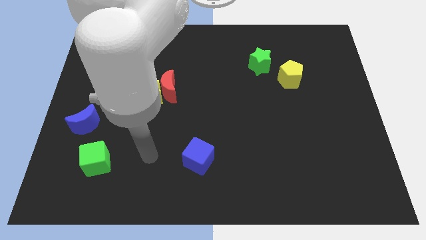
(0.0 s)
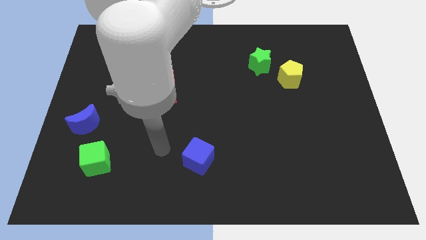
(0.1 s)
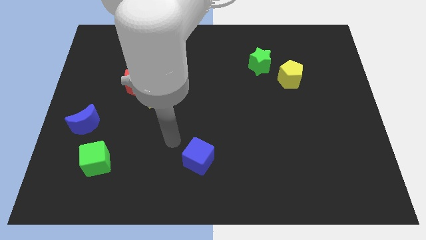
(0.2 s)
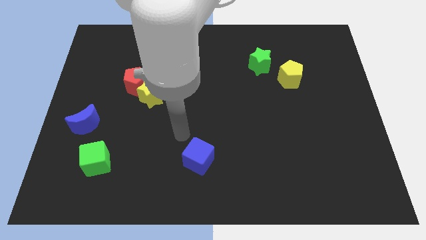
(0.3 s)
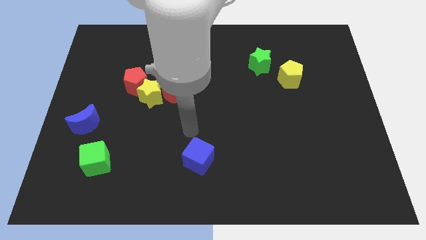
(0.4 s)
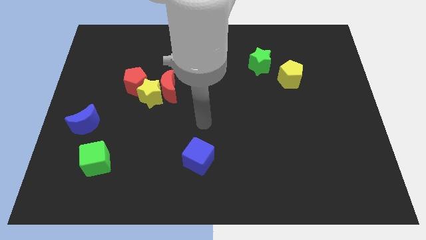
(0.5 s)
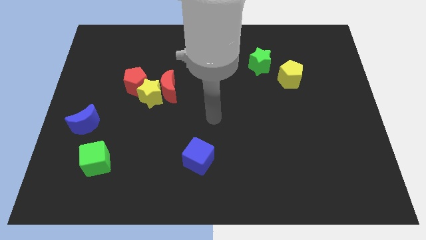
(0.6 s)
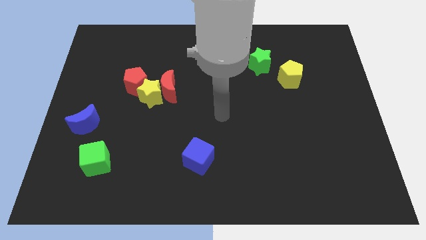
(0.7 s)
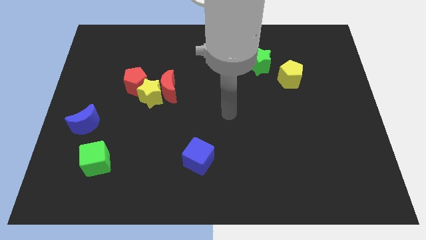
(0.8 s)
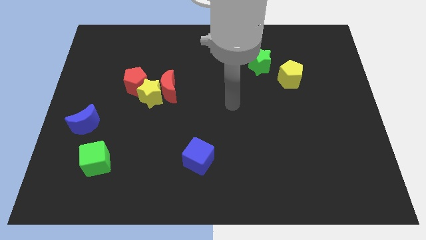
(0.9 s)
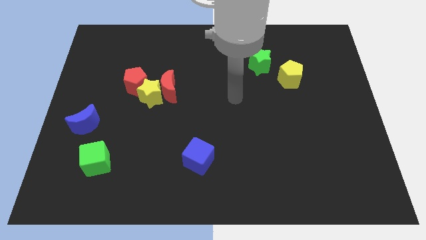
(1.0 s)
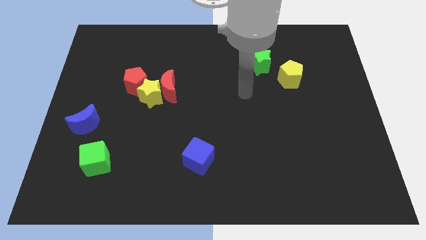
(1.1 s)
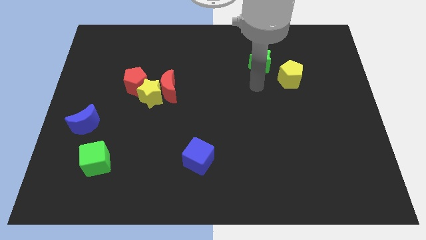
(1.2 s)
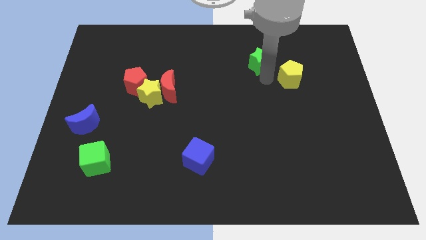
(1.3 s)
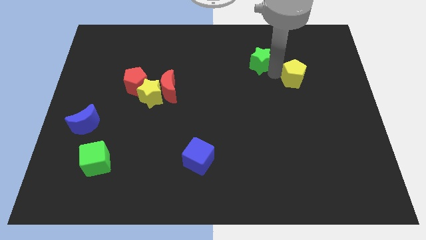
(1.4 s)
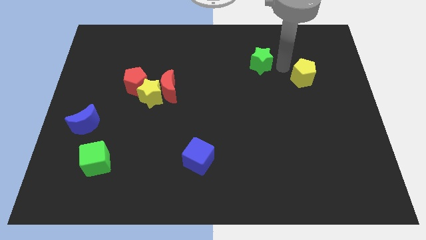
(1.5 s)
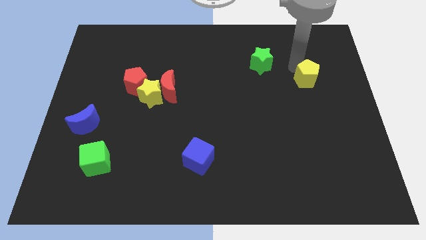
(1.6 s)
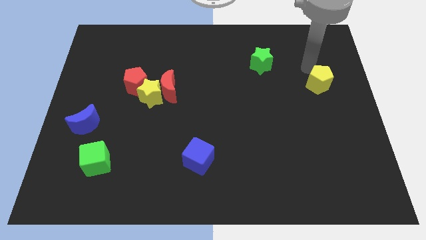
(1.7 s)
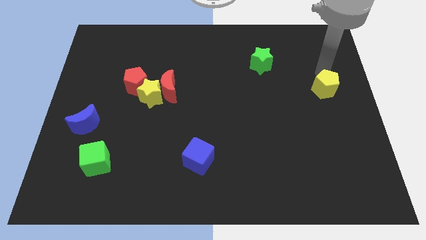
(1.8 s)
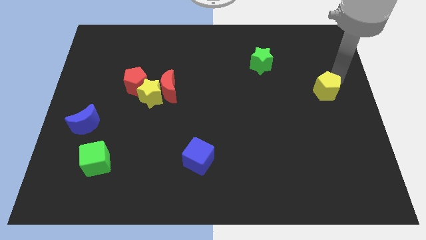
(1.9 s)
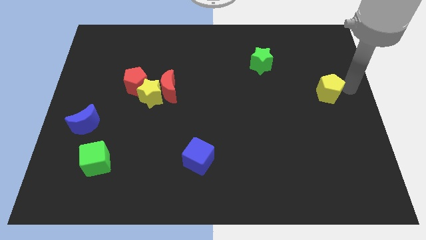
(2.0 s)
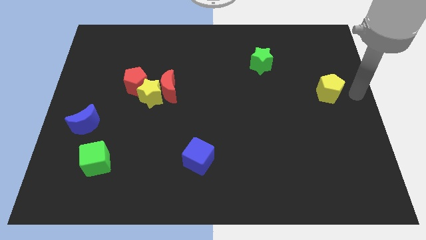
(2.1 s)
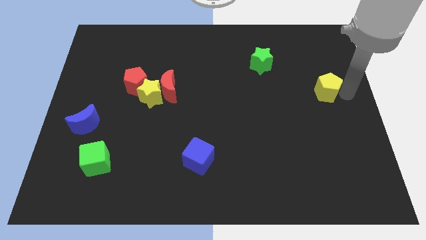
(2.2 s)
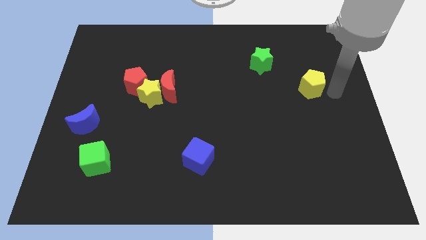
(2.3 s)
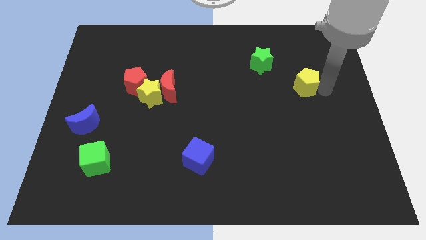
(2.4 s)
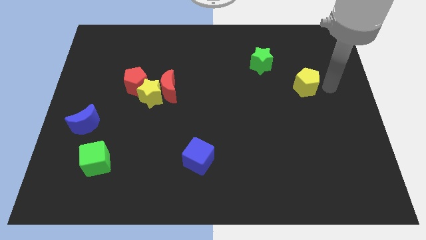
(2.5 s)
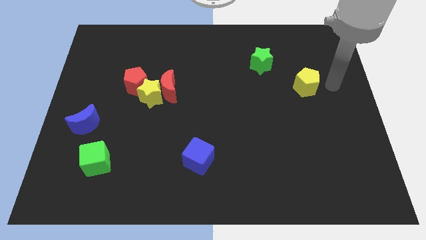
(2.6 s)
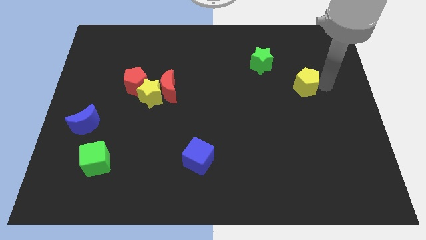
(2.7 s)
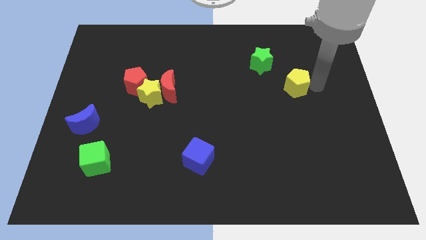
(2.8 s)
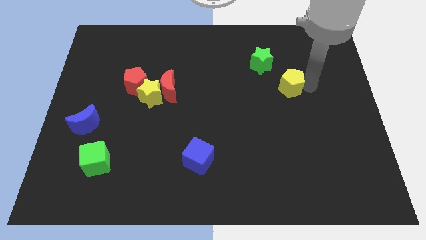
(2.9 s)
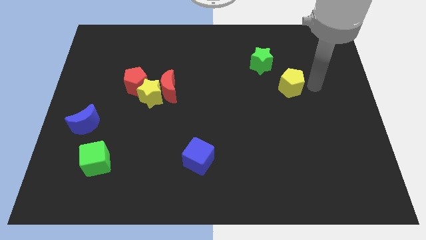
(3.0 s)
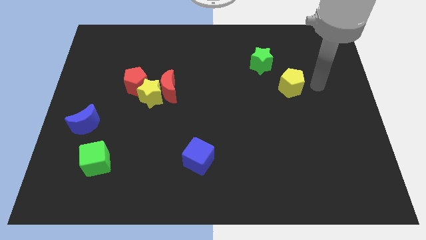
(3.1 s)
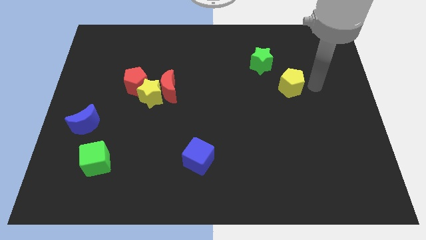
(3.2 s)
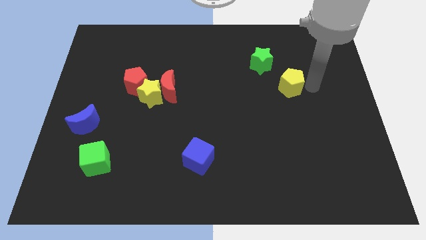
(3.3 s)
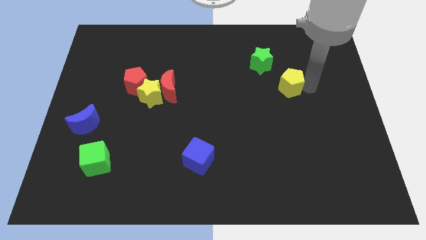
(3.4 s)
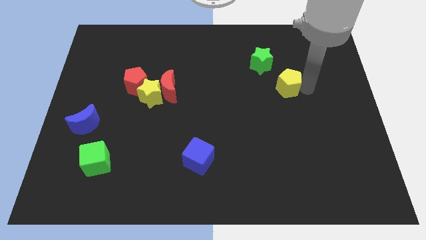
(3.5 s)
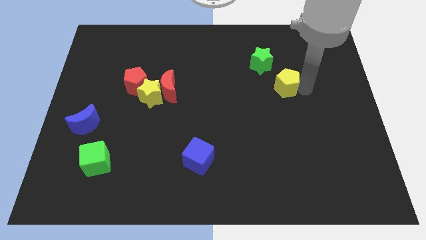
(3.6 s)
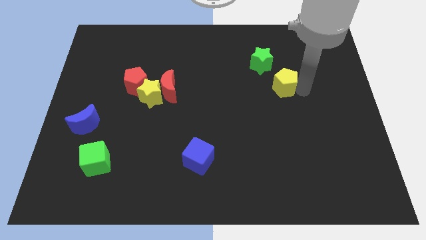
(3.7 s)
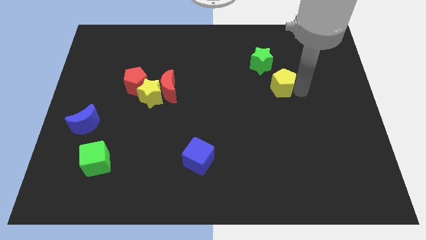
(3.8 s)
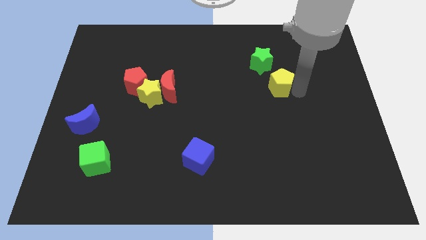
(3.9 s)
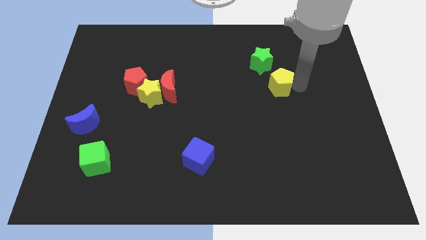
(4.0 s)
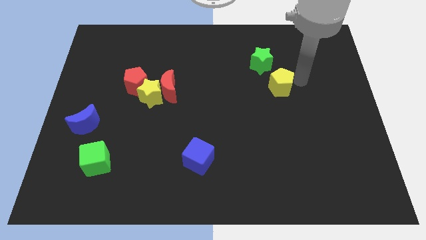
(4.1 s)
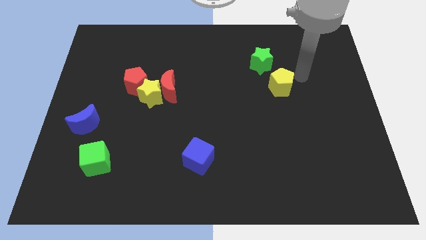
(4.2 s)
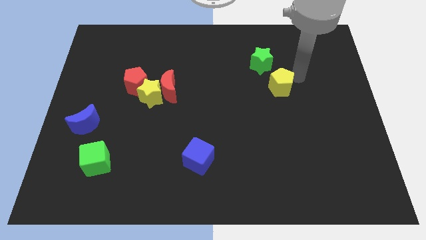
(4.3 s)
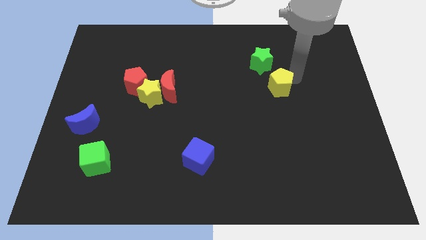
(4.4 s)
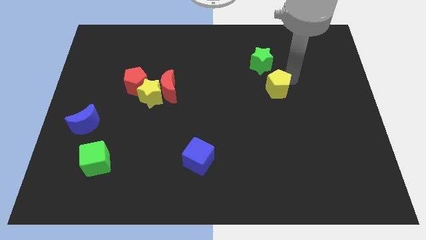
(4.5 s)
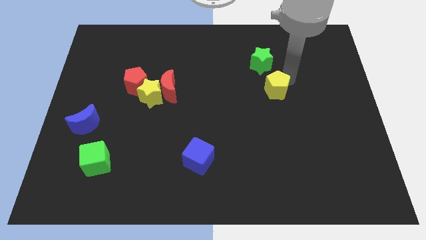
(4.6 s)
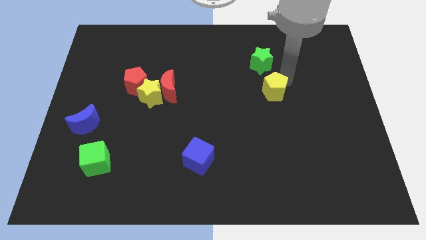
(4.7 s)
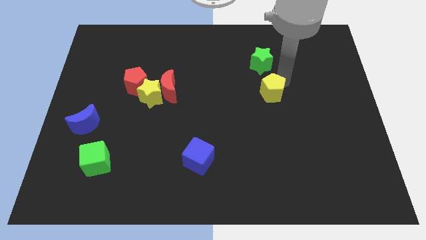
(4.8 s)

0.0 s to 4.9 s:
slightly push the yellow pentagon downwards and to the left diagonally

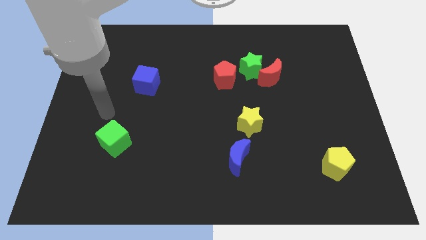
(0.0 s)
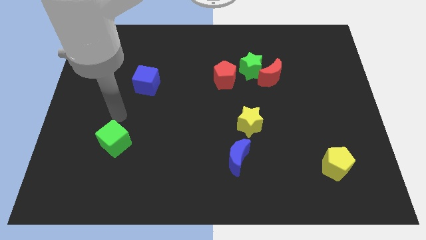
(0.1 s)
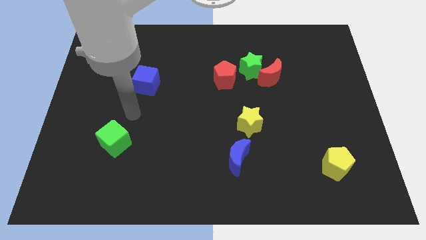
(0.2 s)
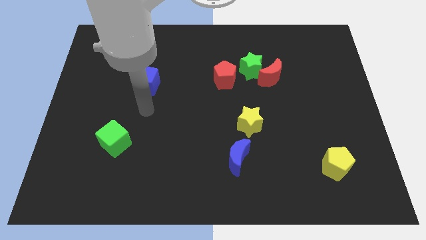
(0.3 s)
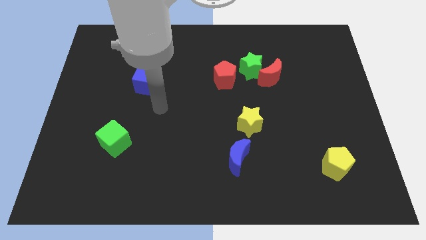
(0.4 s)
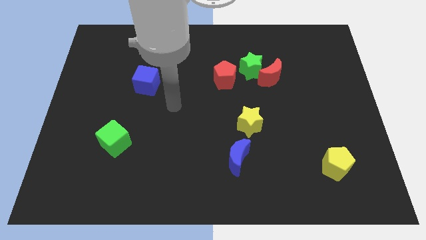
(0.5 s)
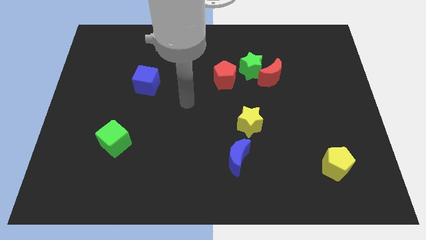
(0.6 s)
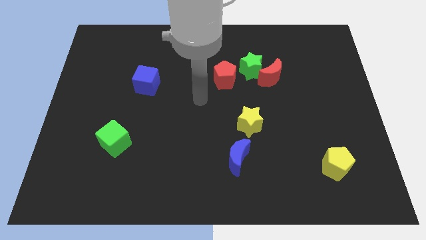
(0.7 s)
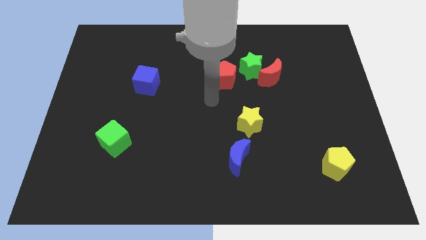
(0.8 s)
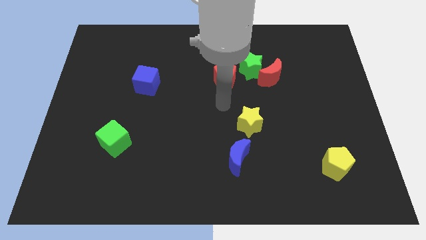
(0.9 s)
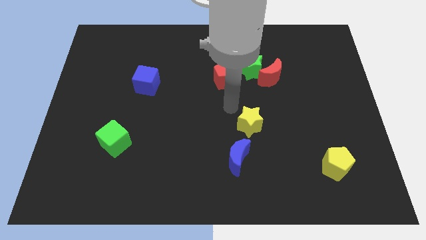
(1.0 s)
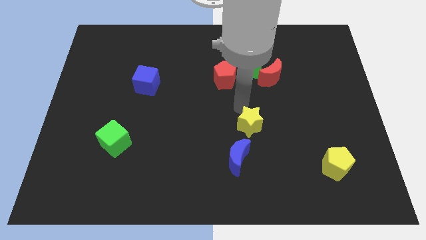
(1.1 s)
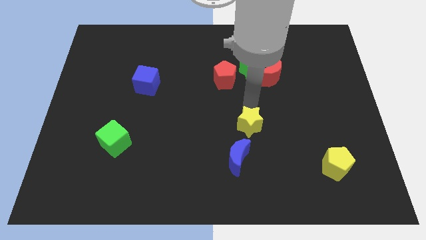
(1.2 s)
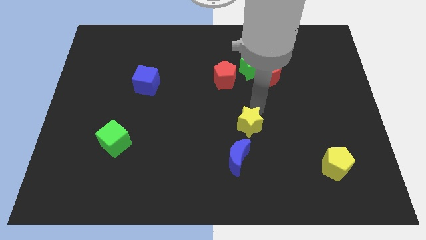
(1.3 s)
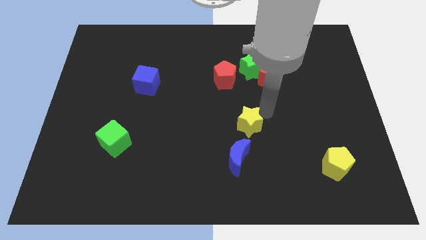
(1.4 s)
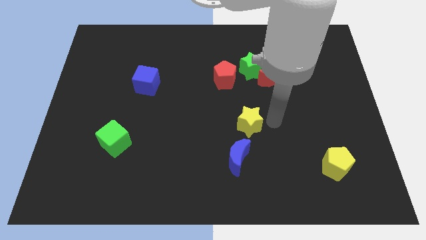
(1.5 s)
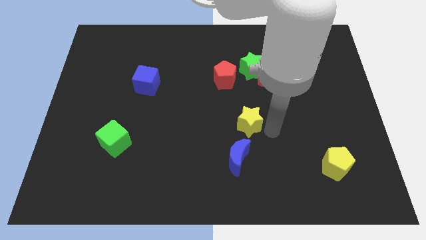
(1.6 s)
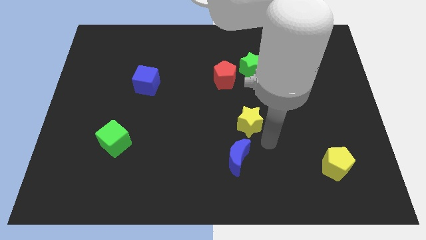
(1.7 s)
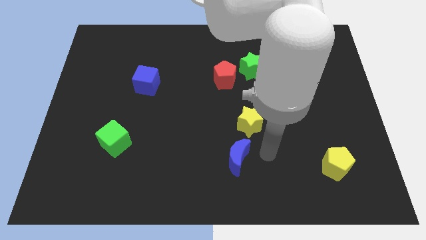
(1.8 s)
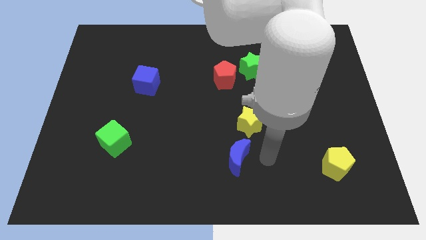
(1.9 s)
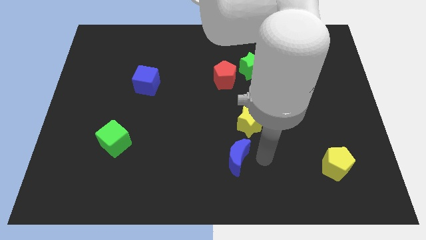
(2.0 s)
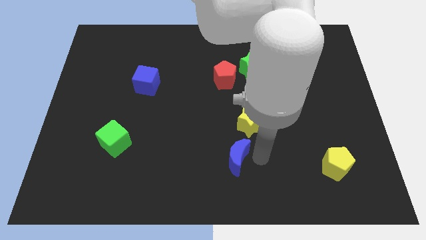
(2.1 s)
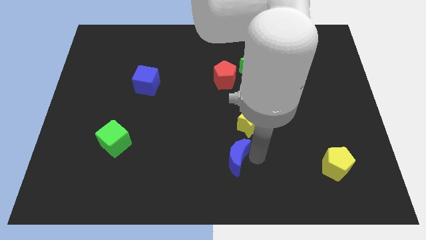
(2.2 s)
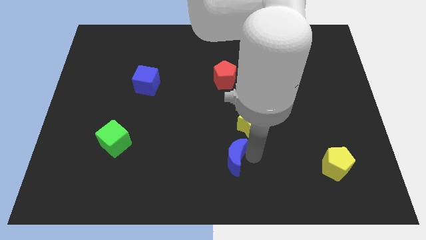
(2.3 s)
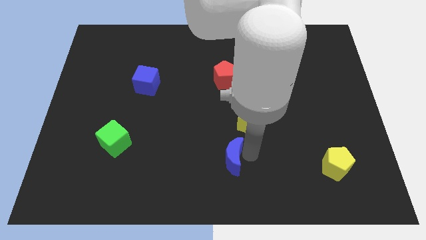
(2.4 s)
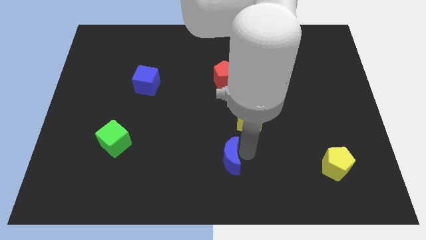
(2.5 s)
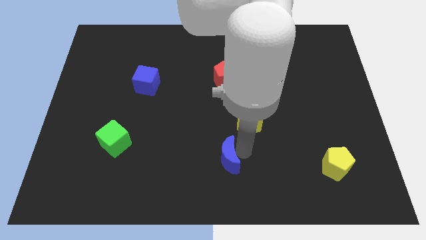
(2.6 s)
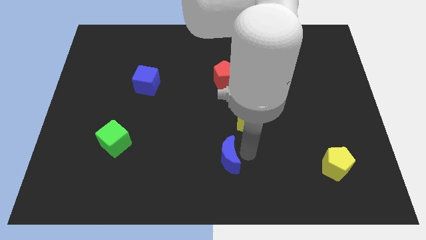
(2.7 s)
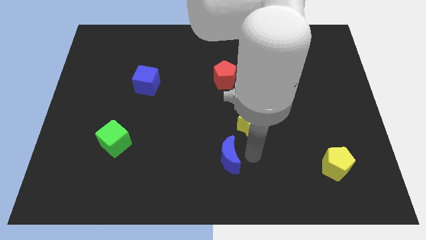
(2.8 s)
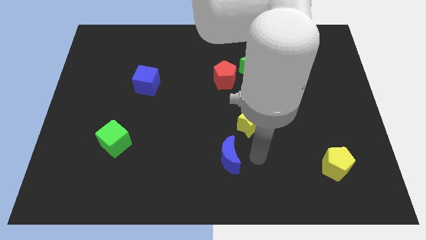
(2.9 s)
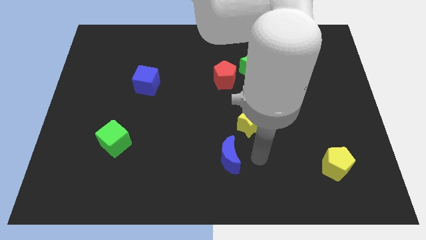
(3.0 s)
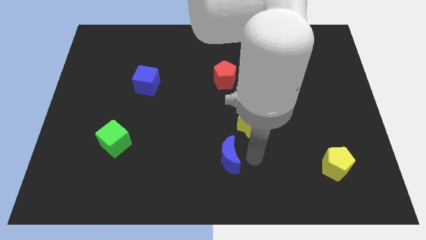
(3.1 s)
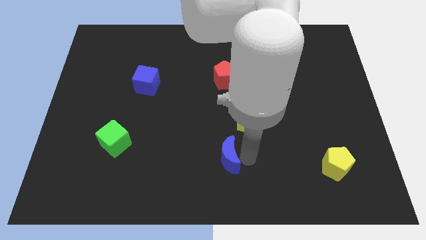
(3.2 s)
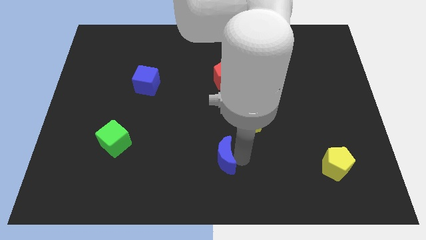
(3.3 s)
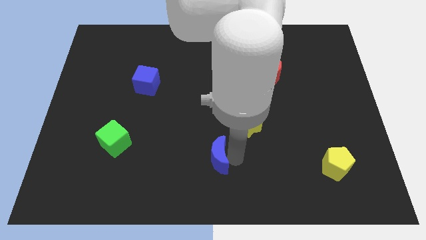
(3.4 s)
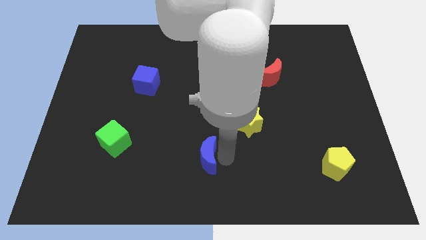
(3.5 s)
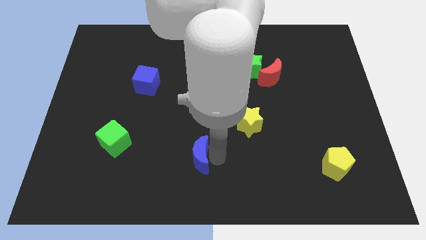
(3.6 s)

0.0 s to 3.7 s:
slide the blue moon left somewhat
